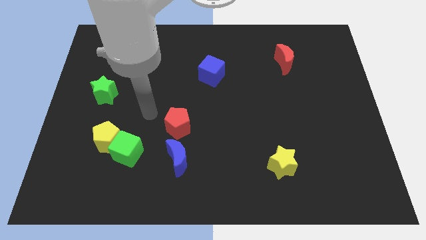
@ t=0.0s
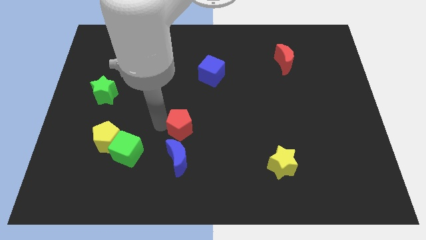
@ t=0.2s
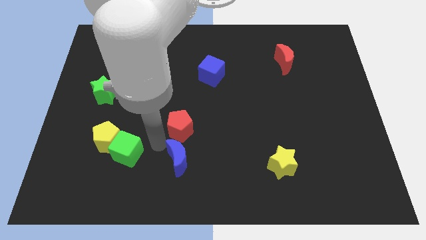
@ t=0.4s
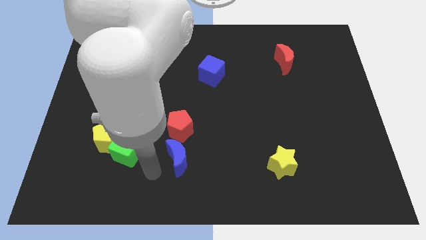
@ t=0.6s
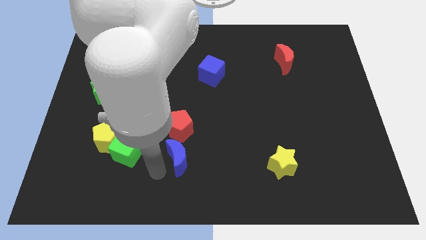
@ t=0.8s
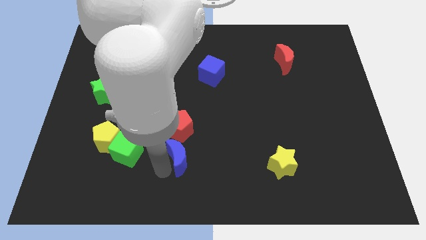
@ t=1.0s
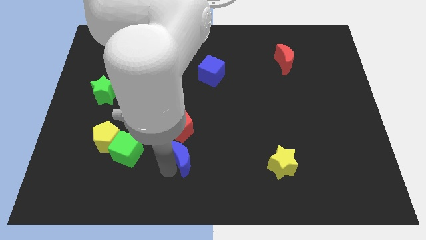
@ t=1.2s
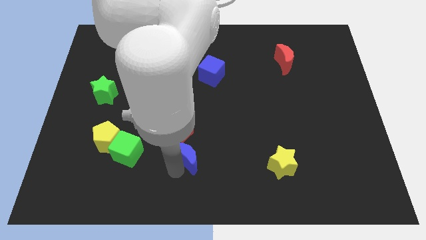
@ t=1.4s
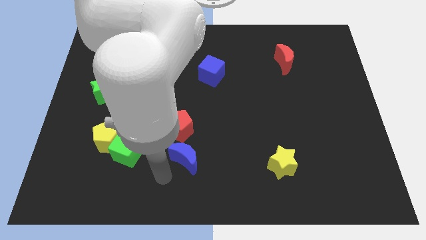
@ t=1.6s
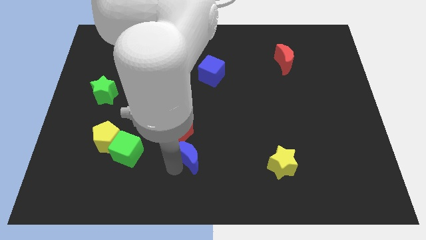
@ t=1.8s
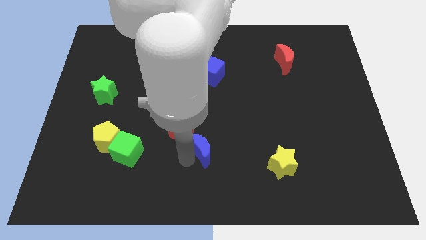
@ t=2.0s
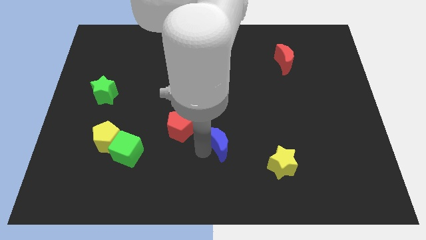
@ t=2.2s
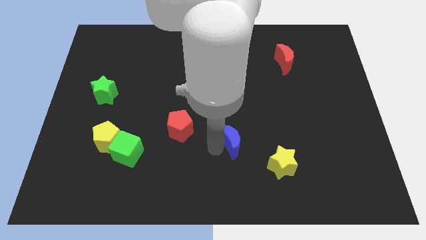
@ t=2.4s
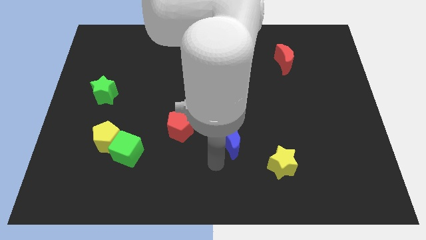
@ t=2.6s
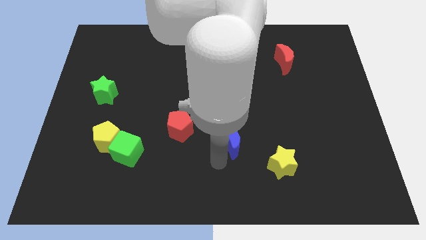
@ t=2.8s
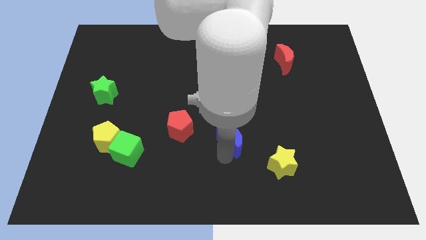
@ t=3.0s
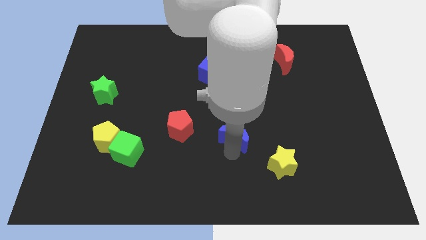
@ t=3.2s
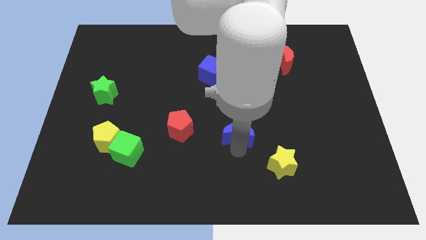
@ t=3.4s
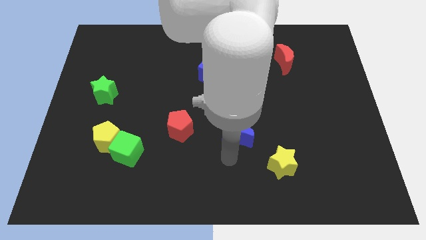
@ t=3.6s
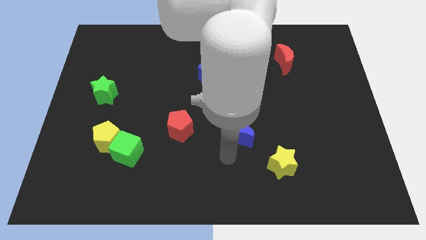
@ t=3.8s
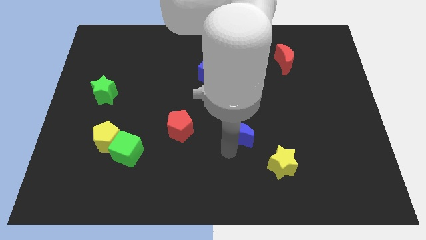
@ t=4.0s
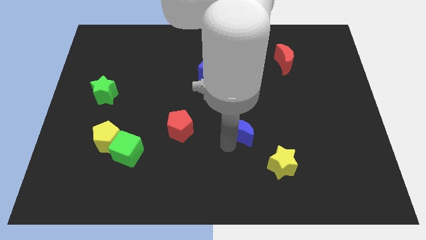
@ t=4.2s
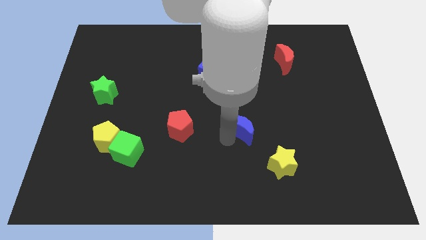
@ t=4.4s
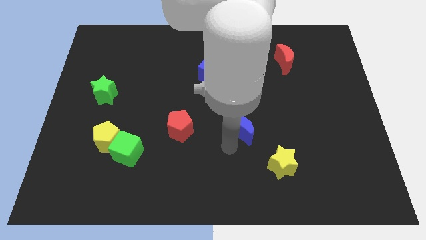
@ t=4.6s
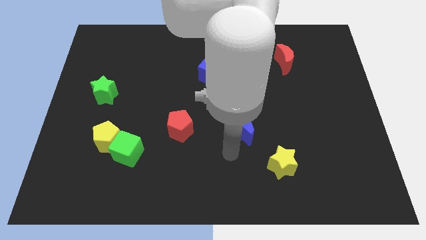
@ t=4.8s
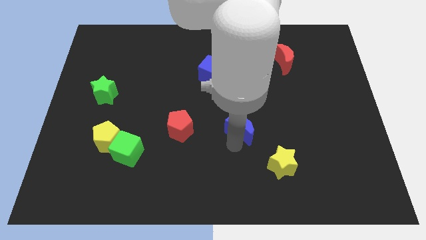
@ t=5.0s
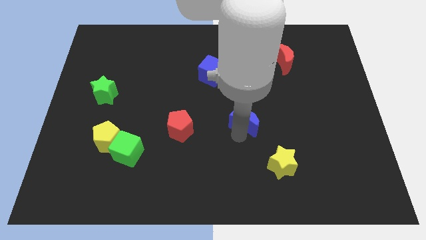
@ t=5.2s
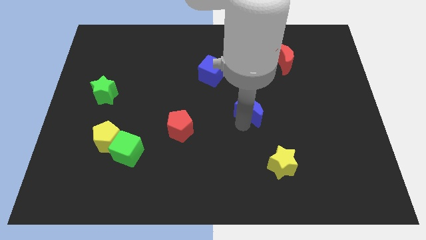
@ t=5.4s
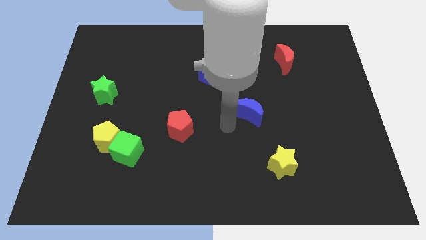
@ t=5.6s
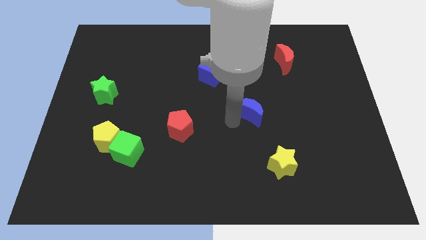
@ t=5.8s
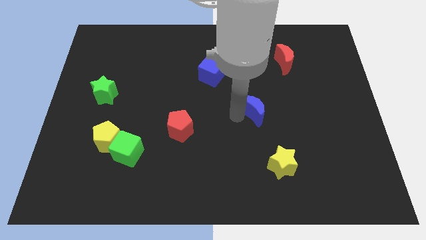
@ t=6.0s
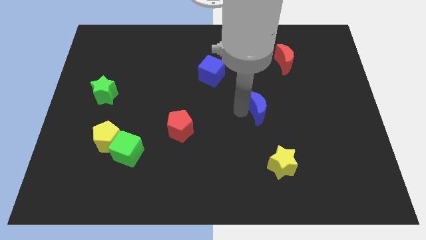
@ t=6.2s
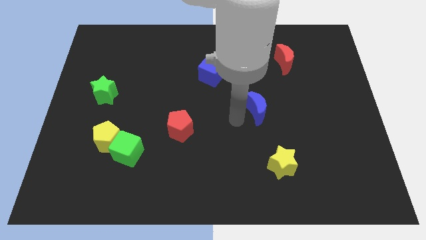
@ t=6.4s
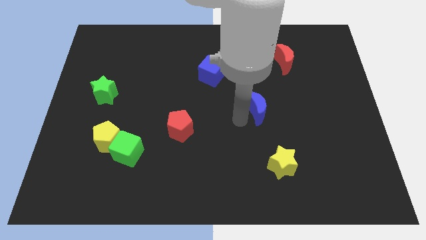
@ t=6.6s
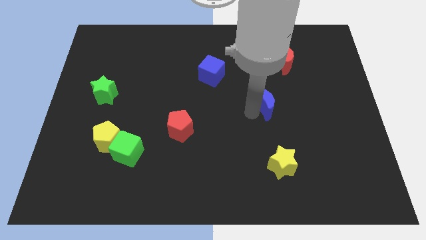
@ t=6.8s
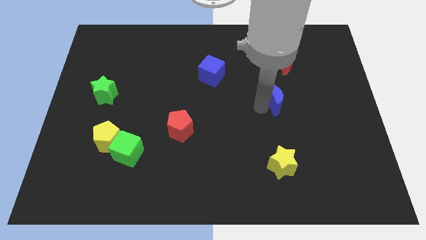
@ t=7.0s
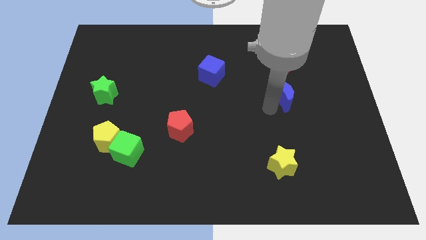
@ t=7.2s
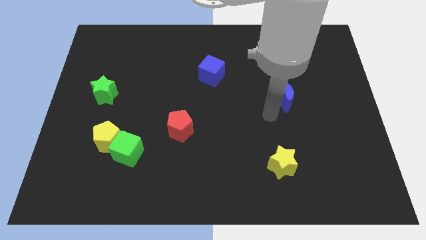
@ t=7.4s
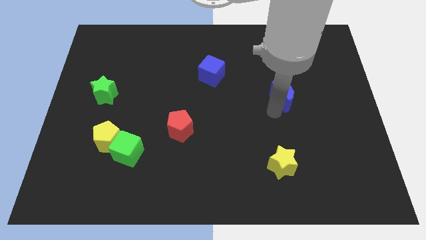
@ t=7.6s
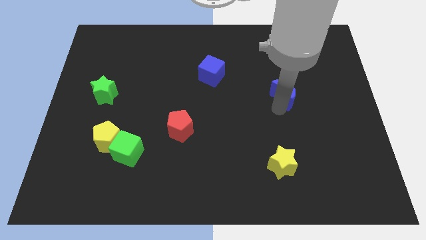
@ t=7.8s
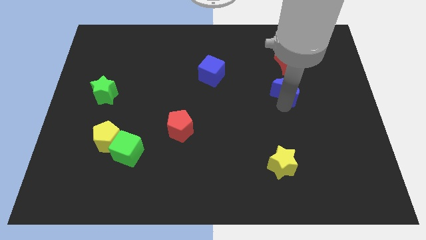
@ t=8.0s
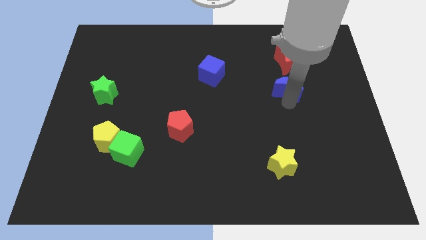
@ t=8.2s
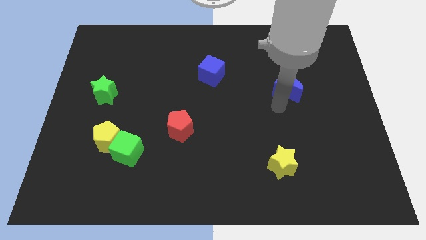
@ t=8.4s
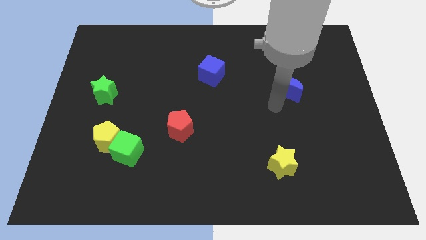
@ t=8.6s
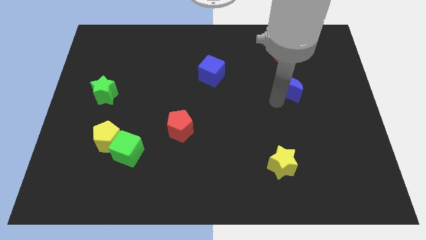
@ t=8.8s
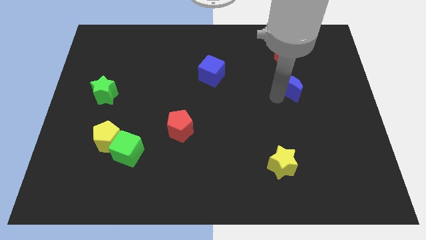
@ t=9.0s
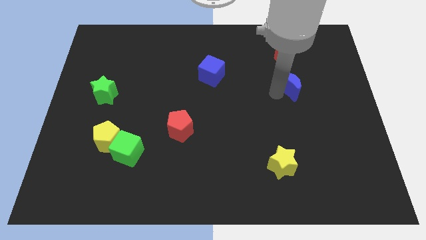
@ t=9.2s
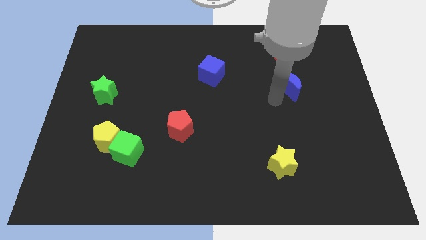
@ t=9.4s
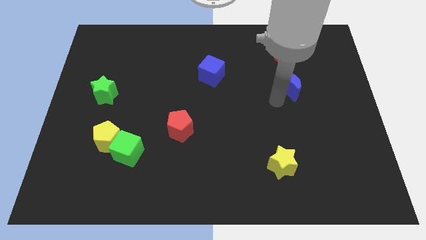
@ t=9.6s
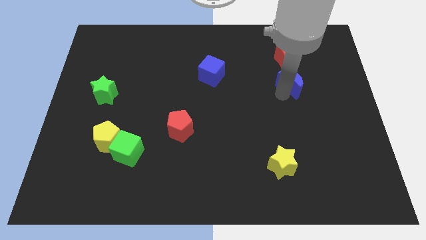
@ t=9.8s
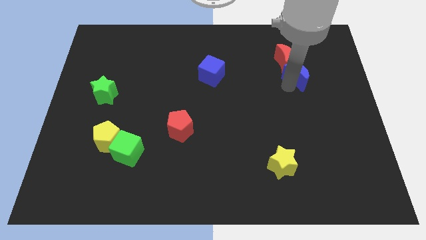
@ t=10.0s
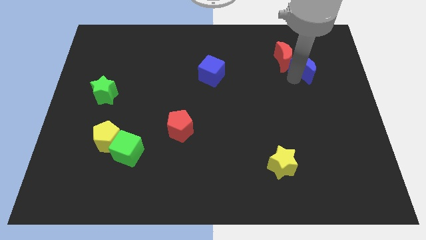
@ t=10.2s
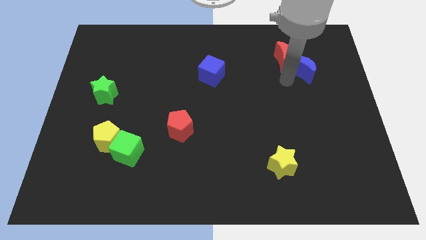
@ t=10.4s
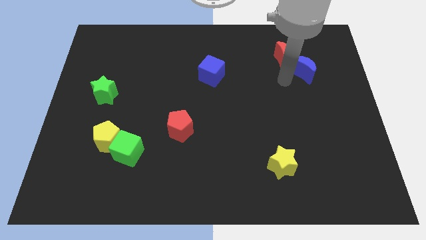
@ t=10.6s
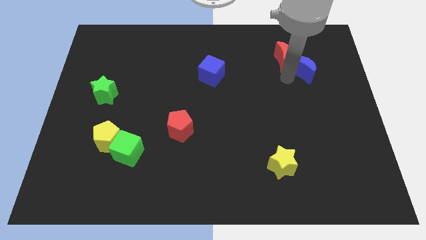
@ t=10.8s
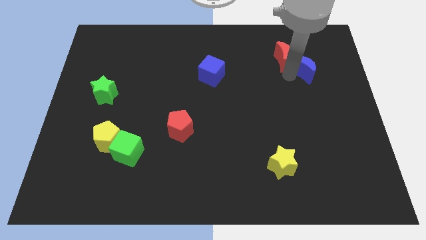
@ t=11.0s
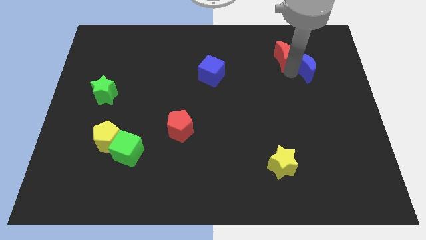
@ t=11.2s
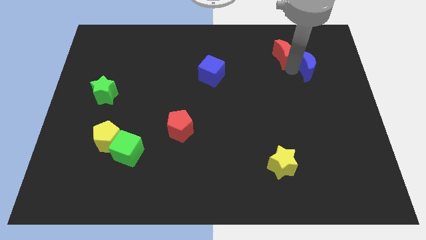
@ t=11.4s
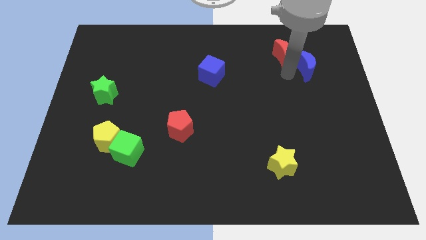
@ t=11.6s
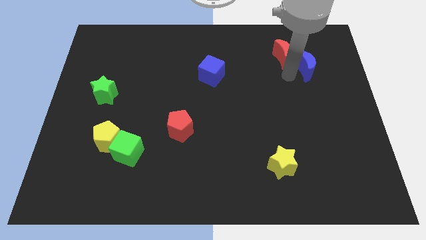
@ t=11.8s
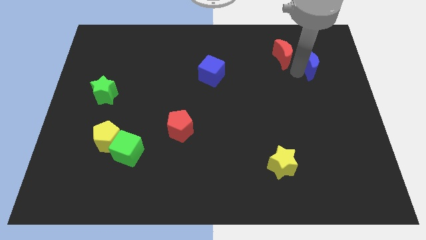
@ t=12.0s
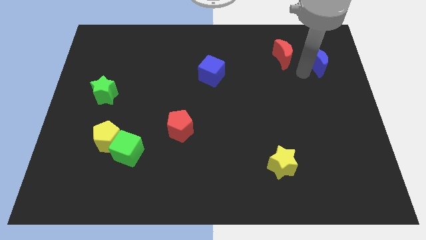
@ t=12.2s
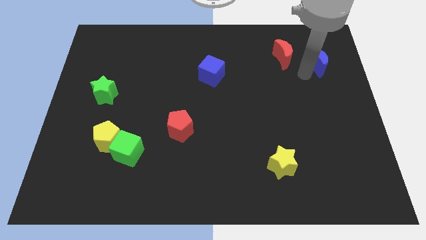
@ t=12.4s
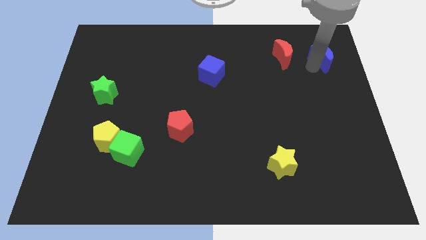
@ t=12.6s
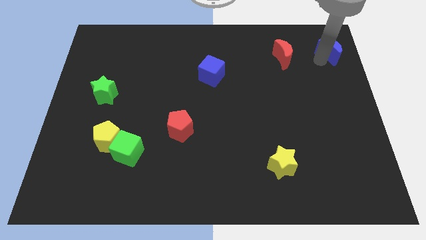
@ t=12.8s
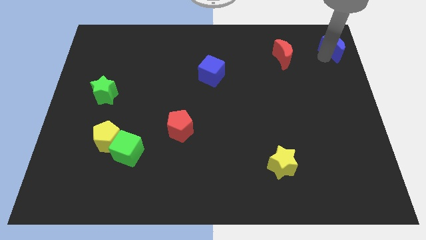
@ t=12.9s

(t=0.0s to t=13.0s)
push the blue moon to the top right
